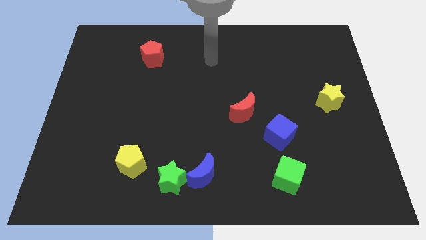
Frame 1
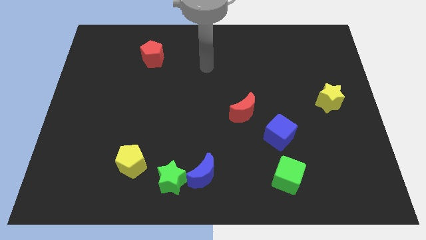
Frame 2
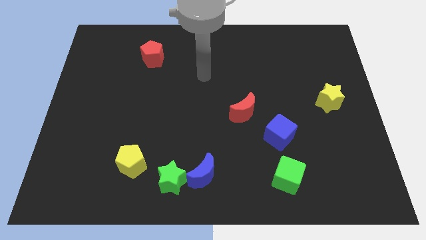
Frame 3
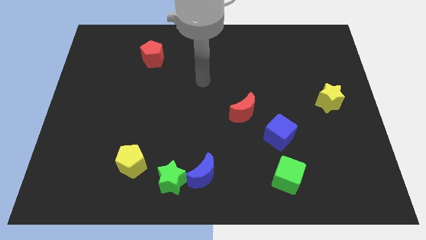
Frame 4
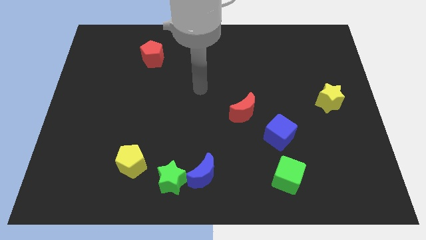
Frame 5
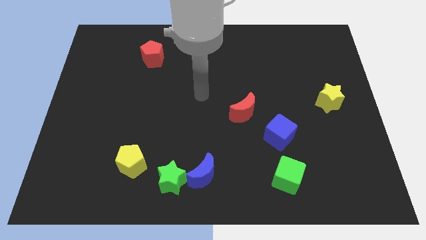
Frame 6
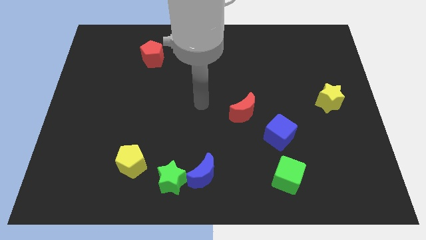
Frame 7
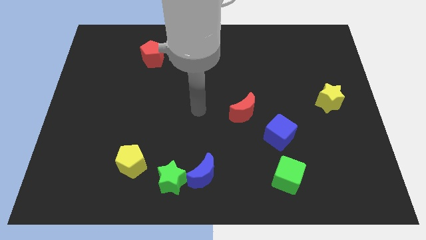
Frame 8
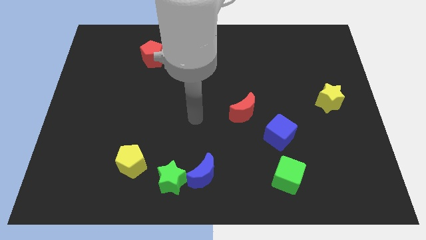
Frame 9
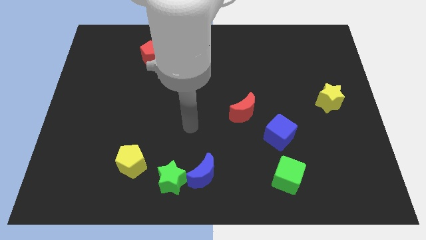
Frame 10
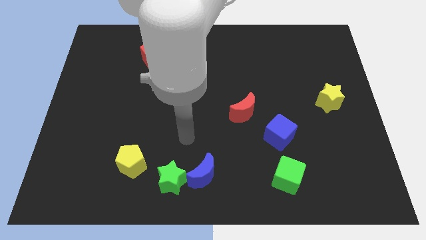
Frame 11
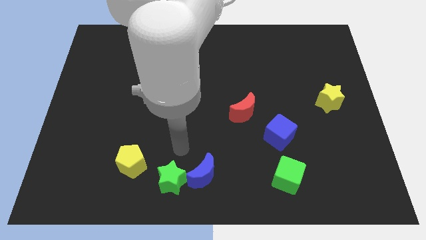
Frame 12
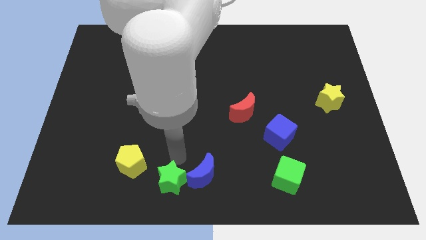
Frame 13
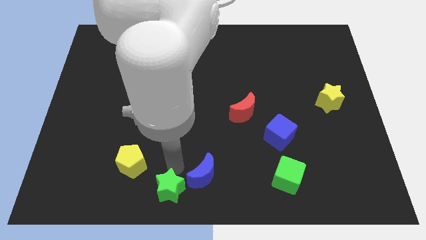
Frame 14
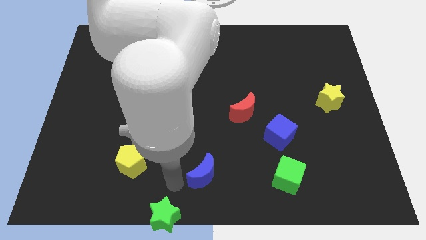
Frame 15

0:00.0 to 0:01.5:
move the blue moon away from the green star

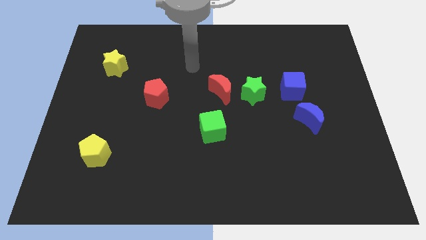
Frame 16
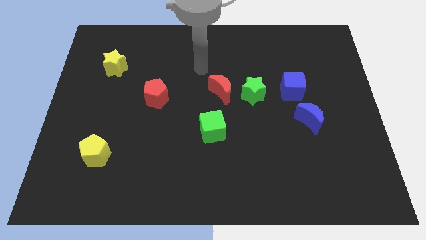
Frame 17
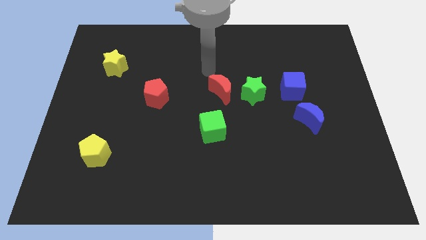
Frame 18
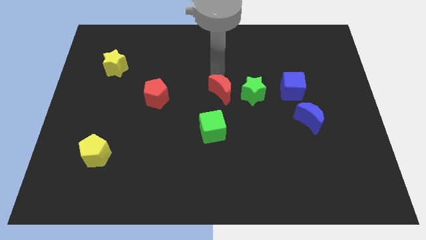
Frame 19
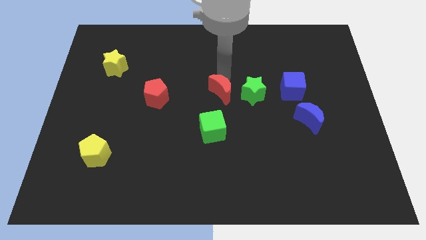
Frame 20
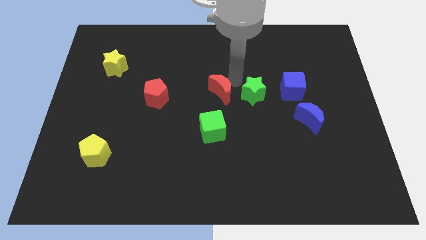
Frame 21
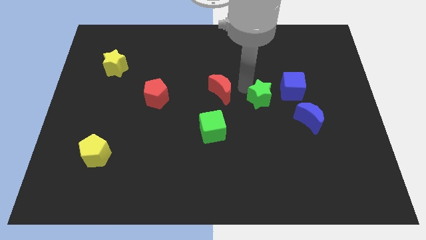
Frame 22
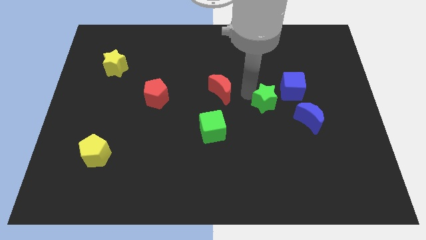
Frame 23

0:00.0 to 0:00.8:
move the red moon away from the green star

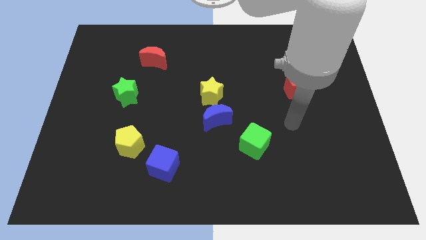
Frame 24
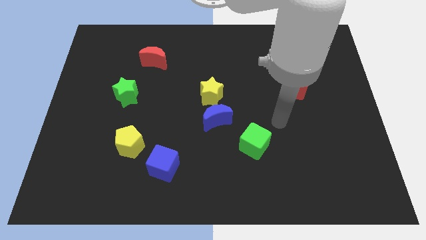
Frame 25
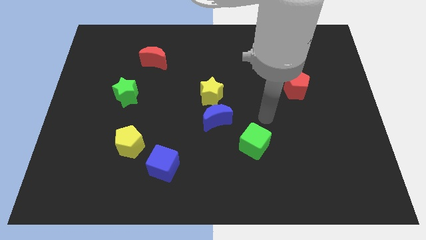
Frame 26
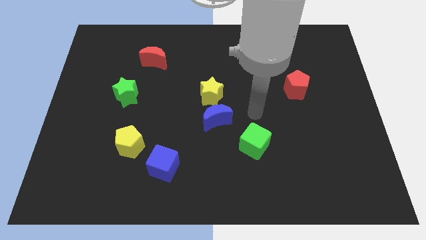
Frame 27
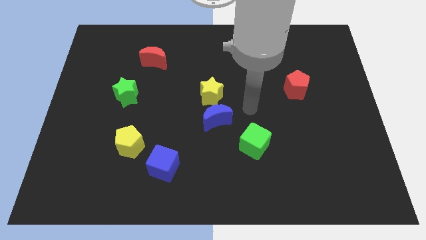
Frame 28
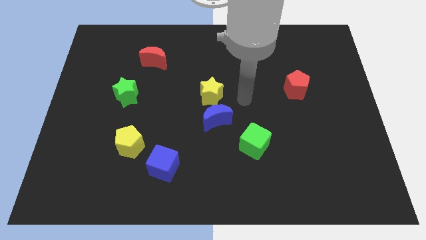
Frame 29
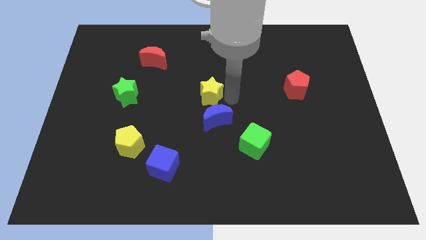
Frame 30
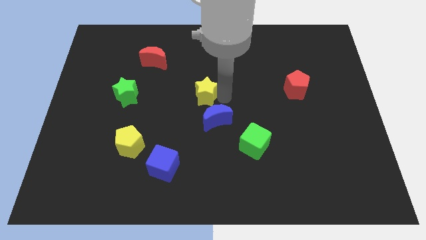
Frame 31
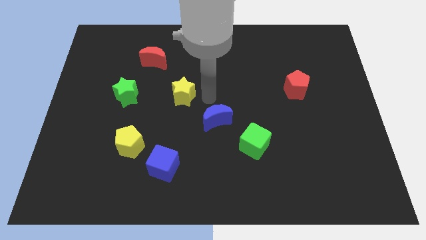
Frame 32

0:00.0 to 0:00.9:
separate the blue moon from the yellow star

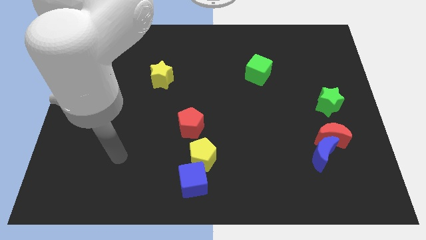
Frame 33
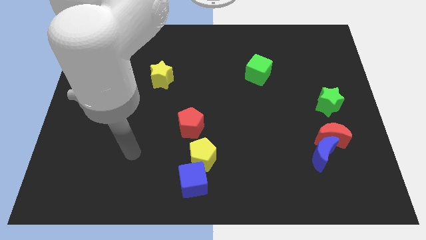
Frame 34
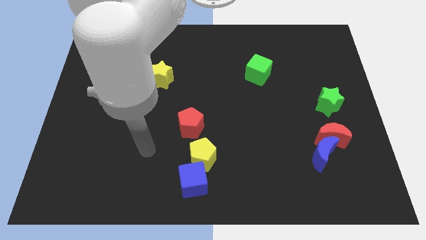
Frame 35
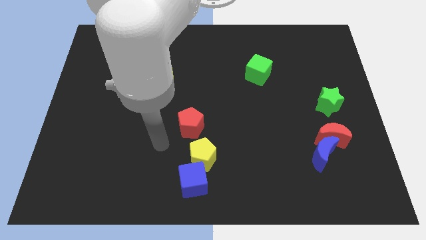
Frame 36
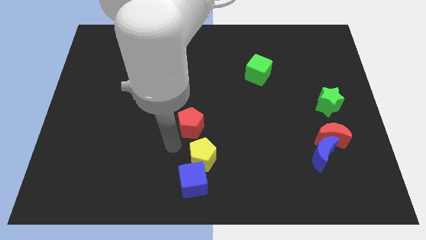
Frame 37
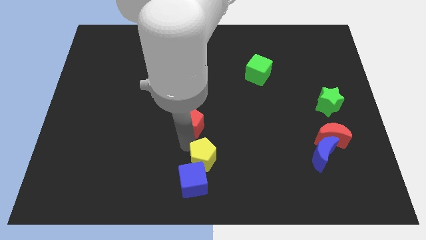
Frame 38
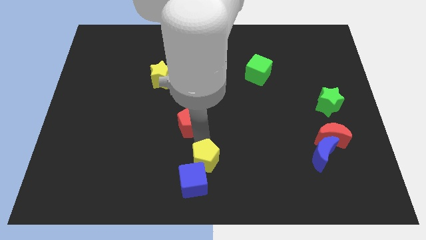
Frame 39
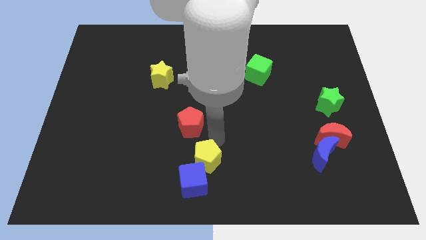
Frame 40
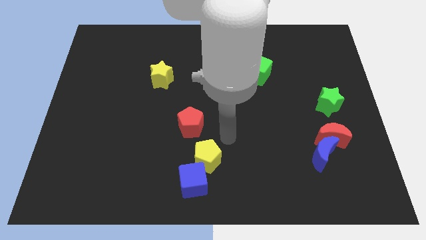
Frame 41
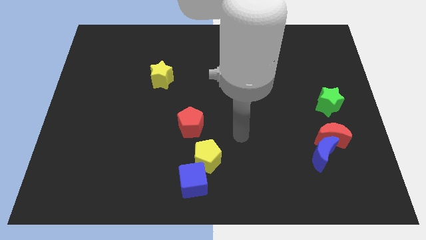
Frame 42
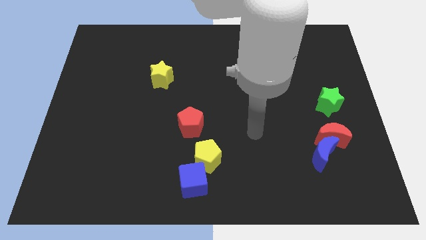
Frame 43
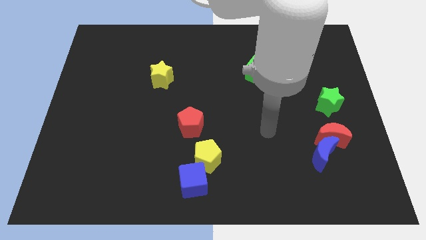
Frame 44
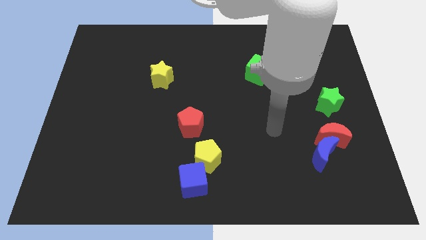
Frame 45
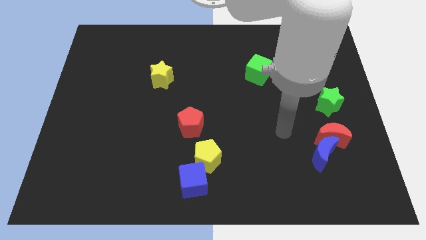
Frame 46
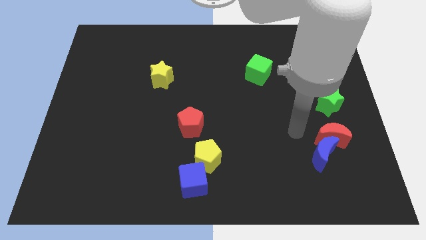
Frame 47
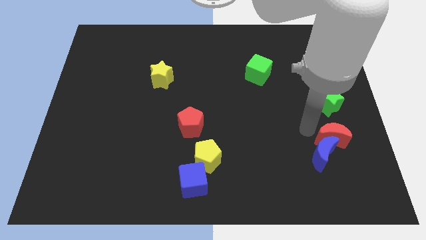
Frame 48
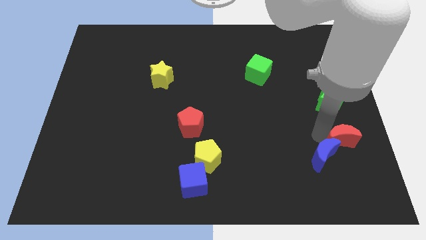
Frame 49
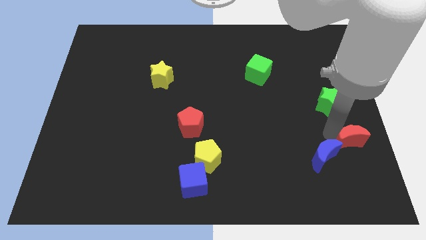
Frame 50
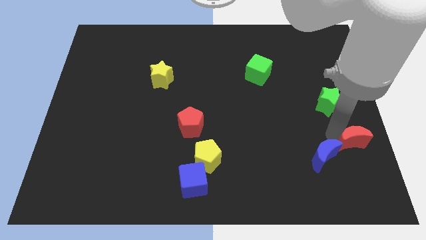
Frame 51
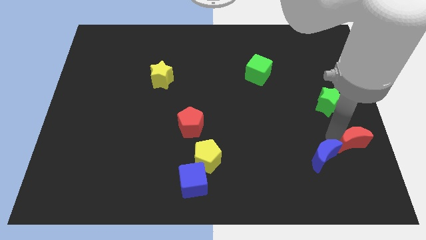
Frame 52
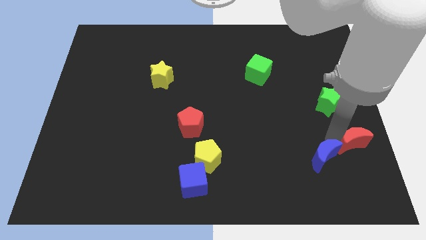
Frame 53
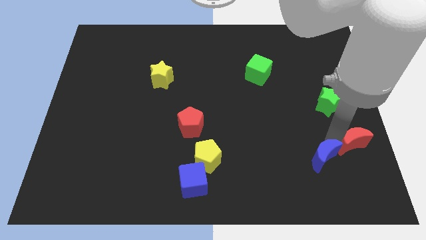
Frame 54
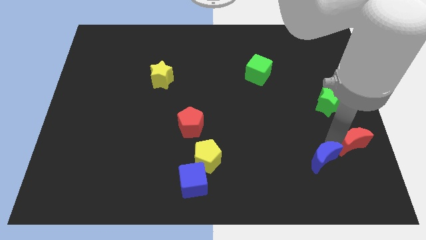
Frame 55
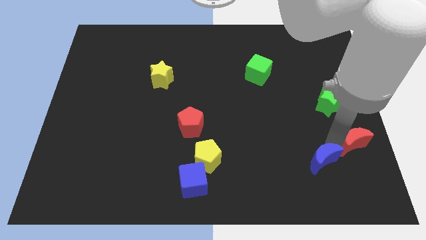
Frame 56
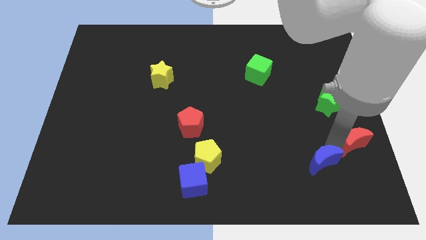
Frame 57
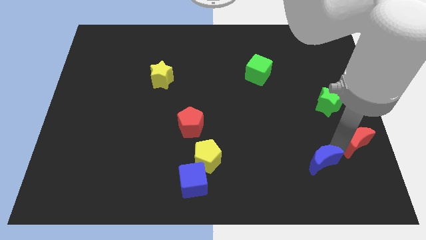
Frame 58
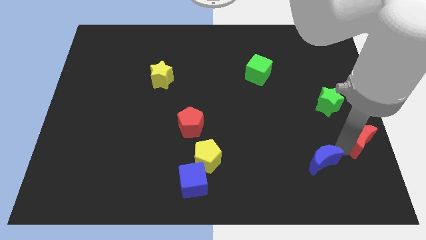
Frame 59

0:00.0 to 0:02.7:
pull the blue moon apart from the red moon

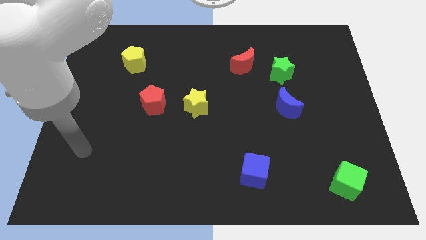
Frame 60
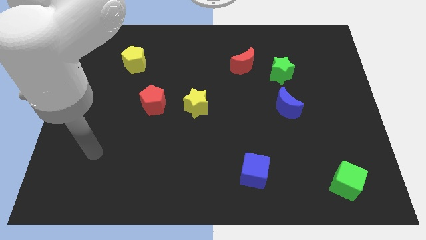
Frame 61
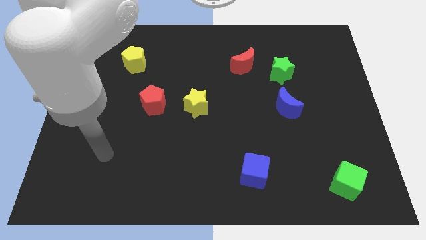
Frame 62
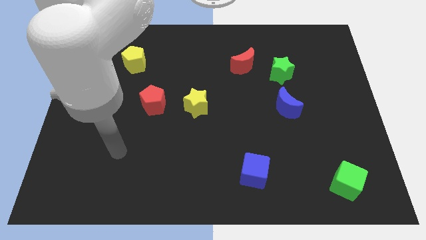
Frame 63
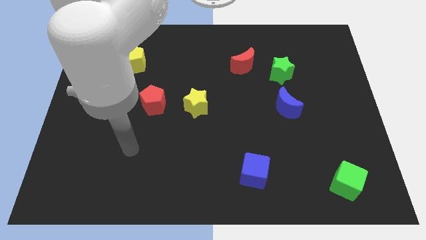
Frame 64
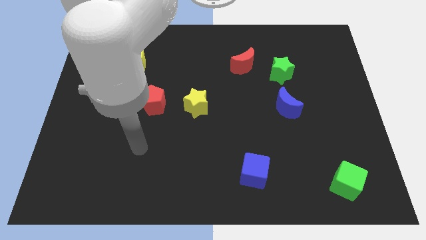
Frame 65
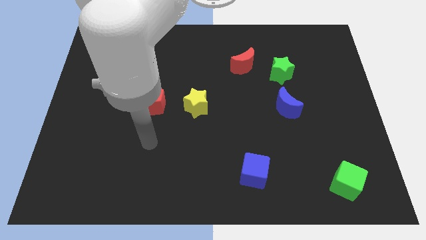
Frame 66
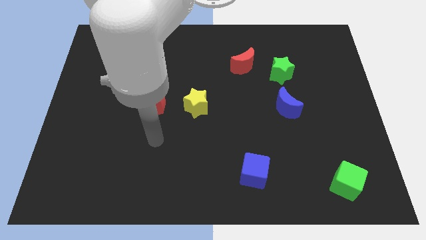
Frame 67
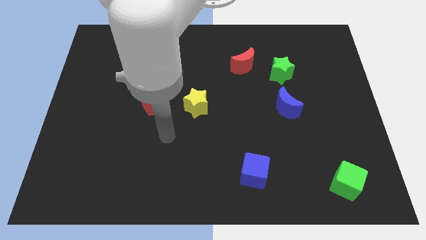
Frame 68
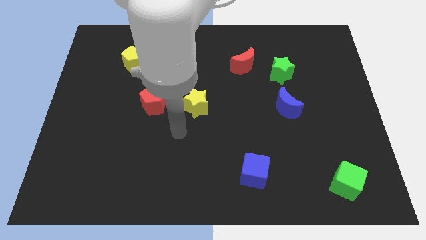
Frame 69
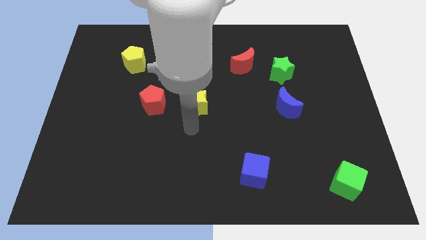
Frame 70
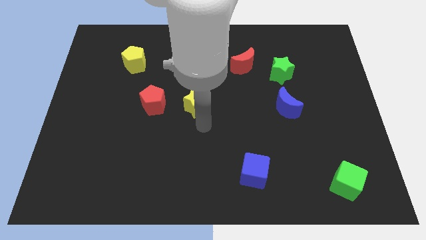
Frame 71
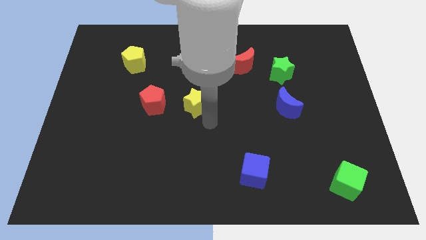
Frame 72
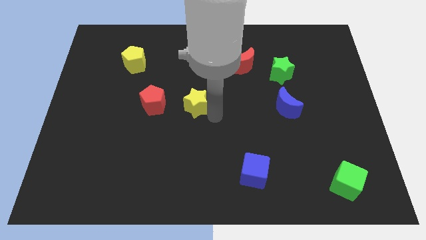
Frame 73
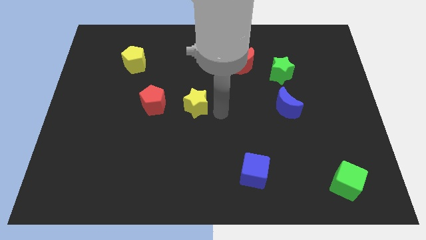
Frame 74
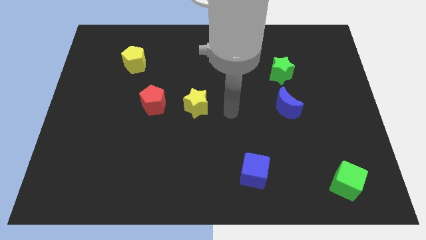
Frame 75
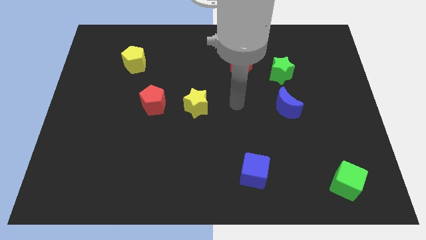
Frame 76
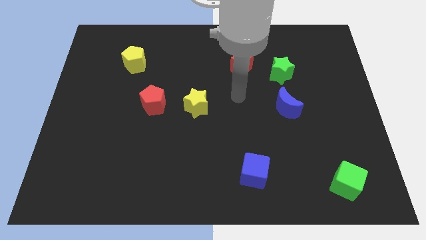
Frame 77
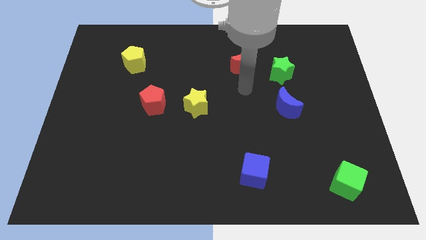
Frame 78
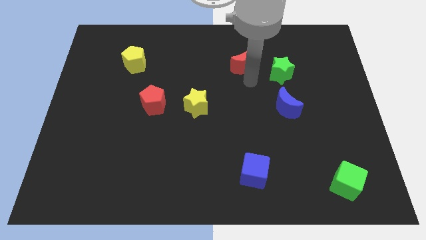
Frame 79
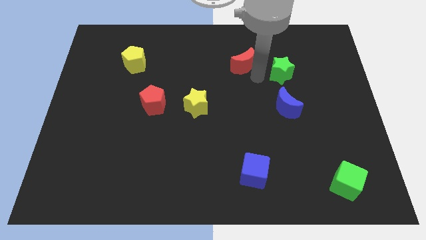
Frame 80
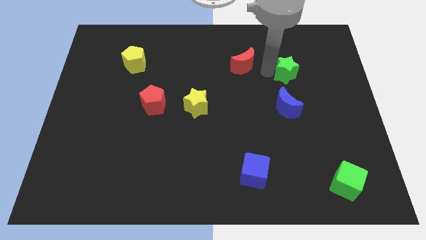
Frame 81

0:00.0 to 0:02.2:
separate the red moon from the green star

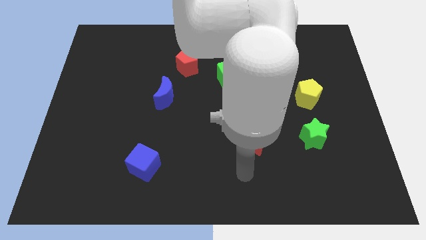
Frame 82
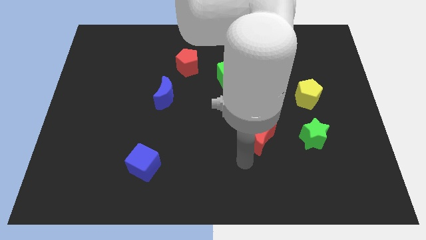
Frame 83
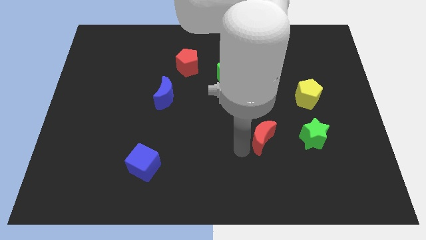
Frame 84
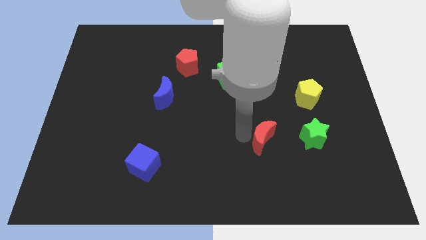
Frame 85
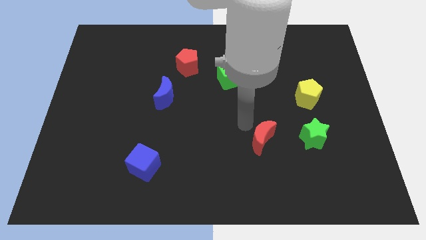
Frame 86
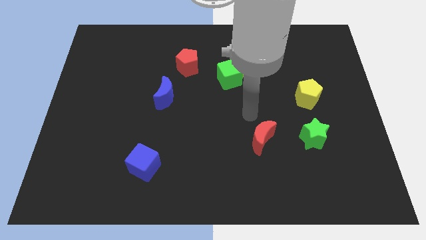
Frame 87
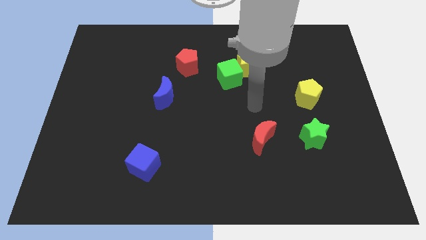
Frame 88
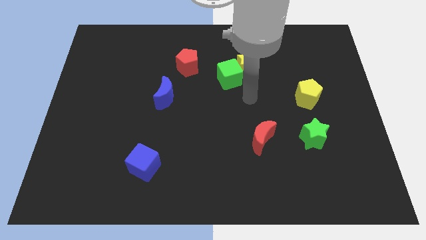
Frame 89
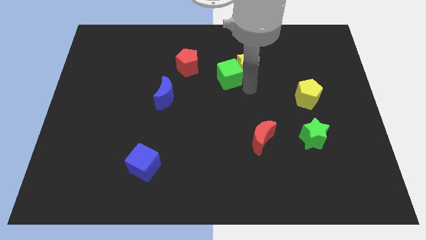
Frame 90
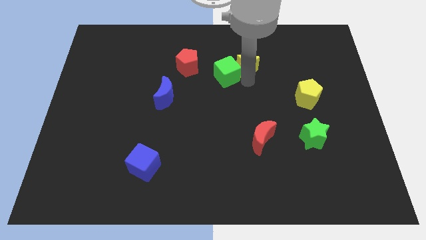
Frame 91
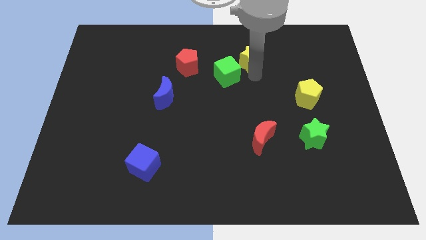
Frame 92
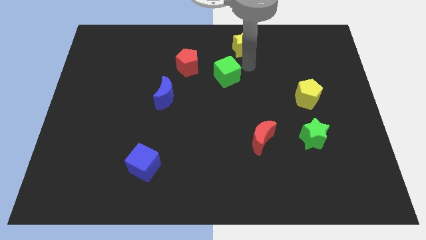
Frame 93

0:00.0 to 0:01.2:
separate the green cube from the yellow star

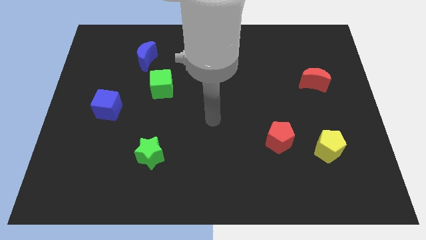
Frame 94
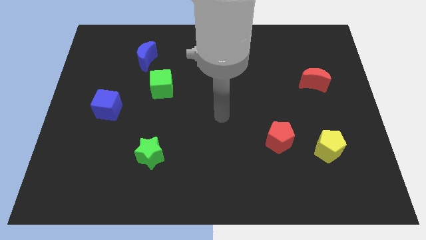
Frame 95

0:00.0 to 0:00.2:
separate the red pentagon from the yellow pentagon
